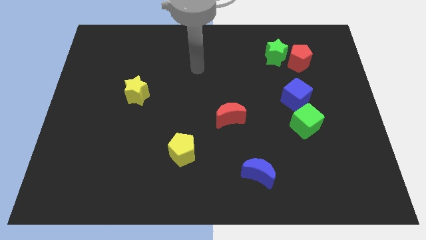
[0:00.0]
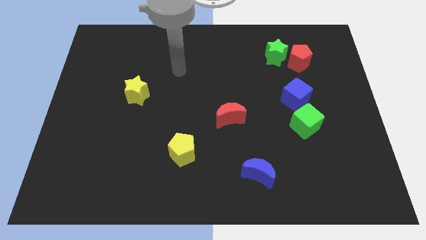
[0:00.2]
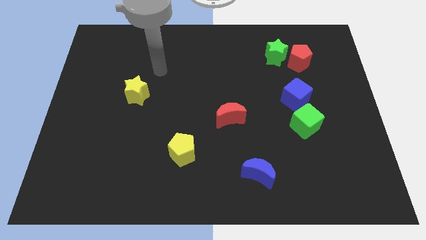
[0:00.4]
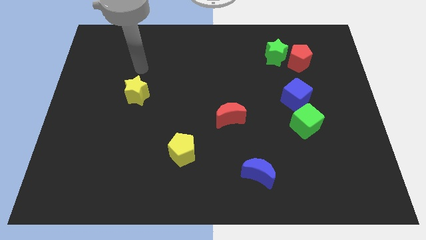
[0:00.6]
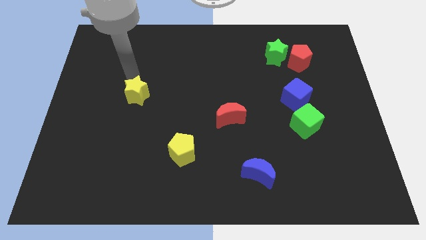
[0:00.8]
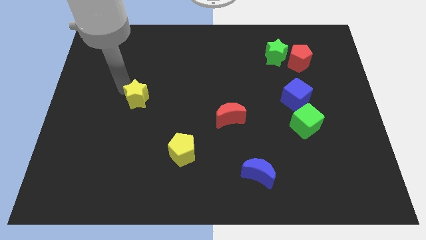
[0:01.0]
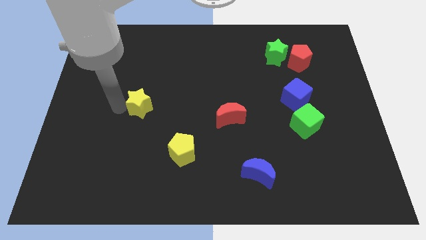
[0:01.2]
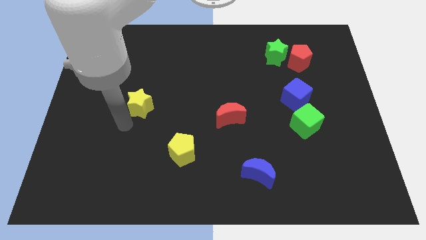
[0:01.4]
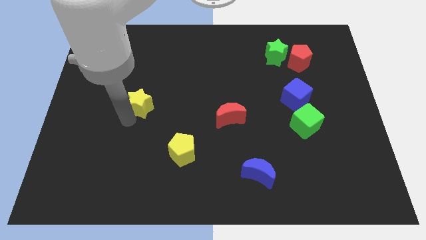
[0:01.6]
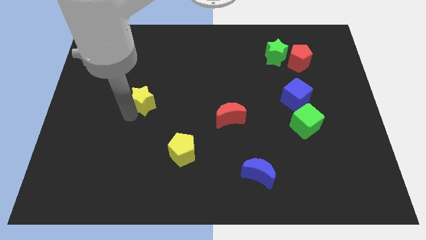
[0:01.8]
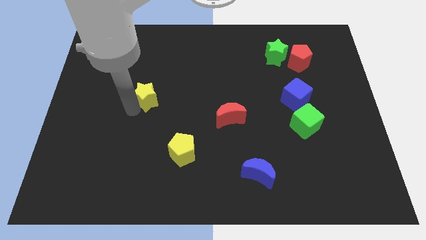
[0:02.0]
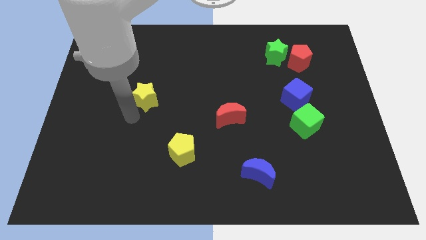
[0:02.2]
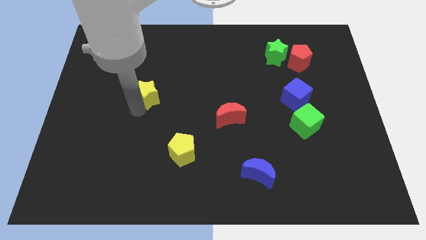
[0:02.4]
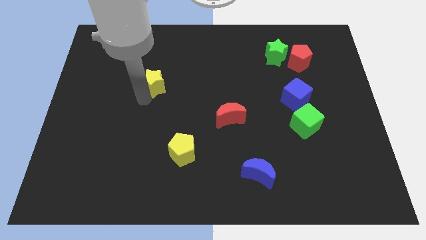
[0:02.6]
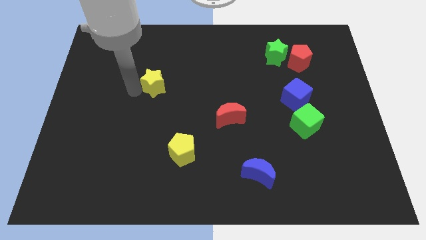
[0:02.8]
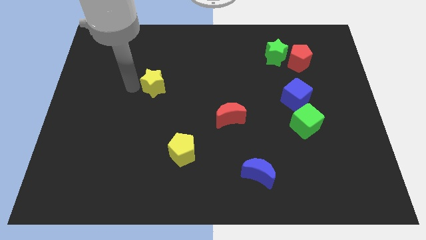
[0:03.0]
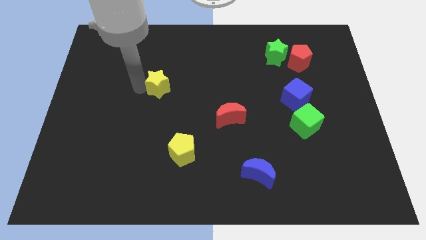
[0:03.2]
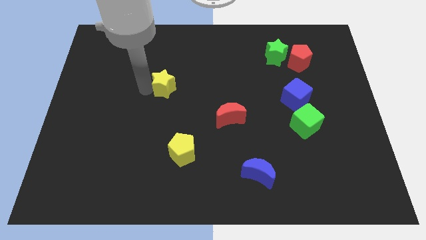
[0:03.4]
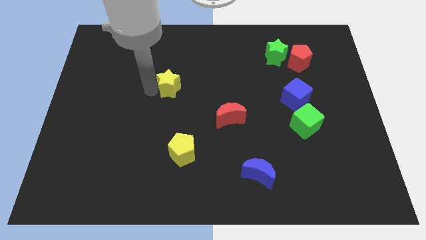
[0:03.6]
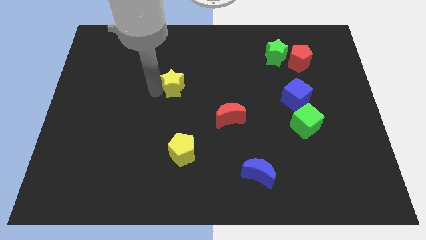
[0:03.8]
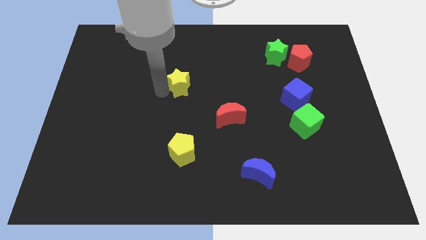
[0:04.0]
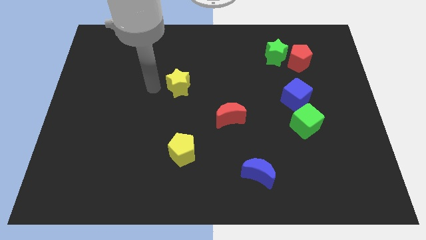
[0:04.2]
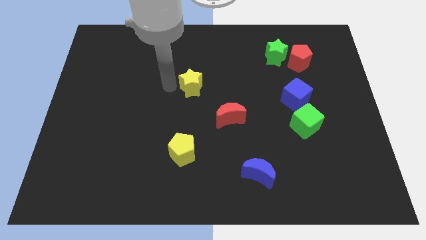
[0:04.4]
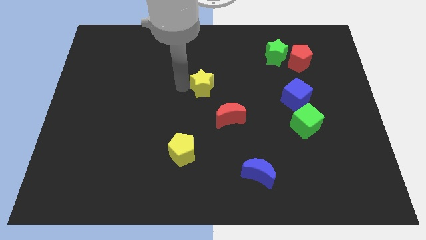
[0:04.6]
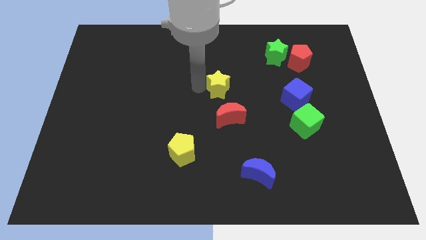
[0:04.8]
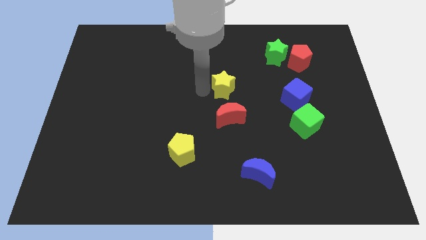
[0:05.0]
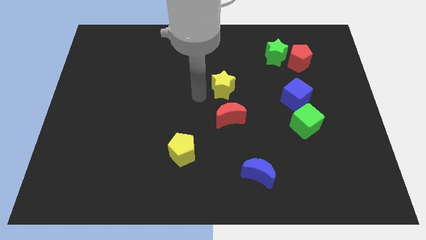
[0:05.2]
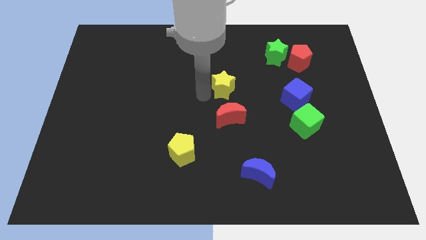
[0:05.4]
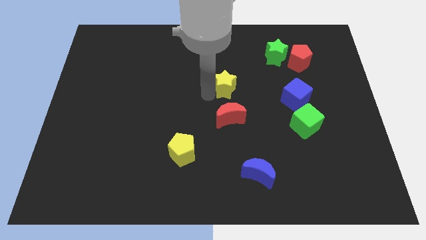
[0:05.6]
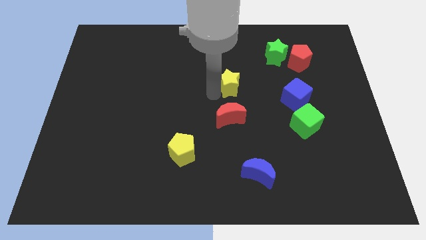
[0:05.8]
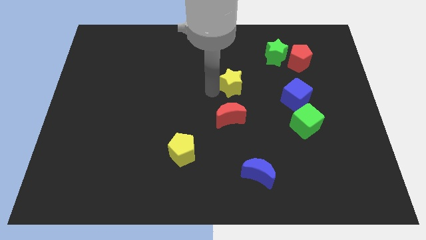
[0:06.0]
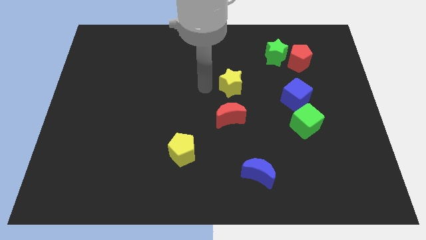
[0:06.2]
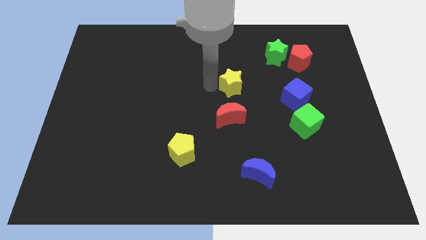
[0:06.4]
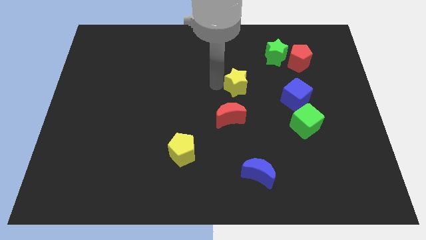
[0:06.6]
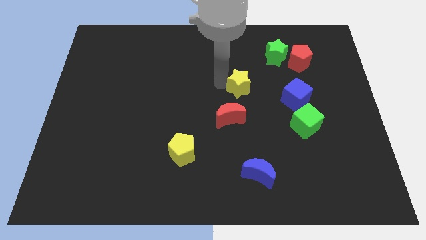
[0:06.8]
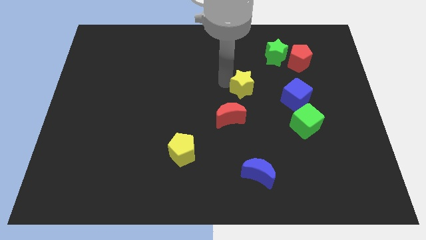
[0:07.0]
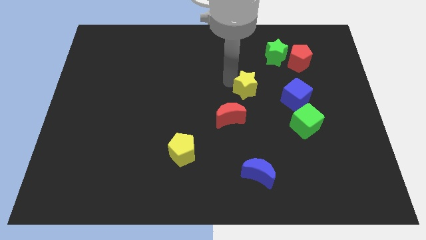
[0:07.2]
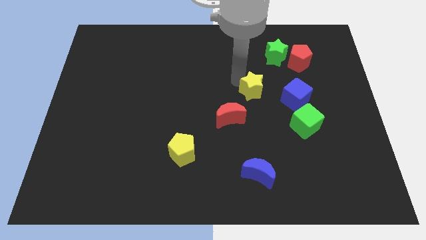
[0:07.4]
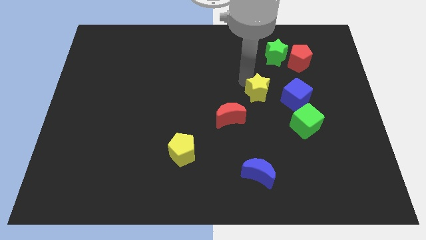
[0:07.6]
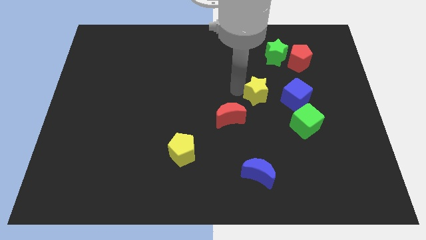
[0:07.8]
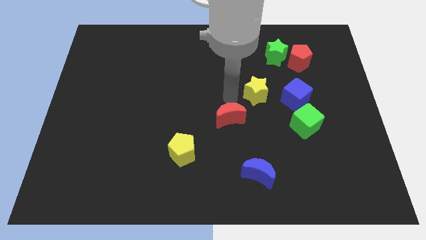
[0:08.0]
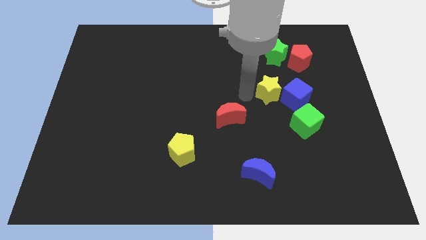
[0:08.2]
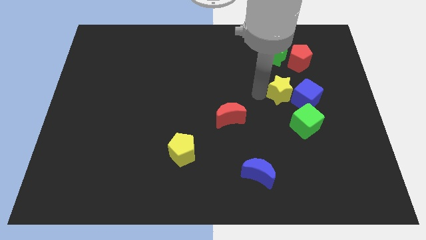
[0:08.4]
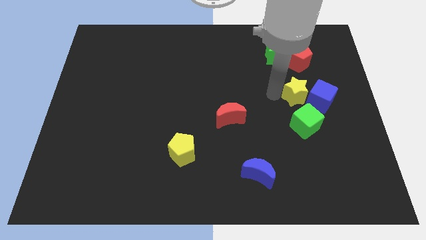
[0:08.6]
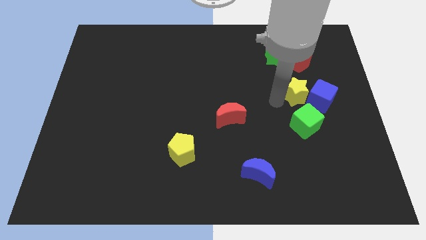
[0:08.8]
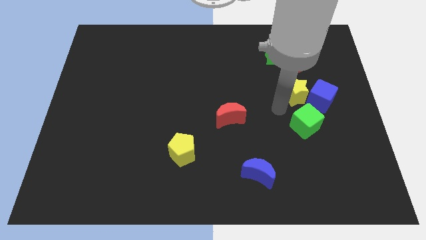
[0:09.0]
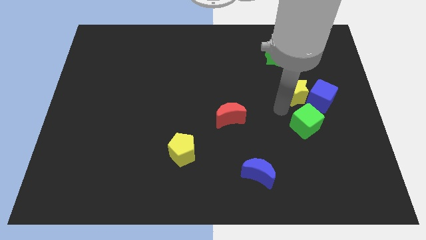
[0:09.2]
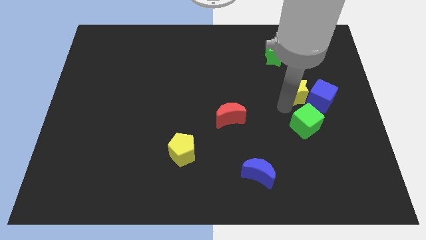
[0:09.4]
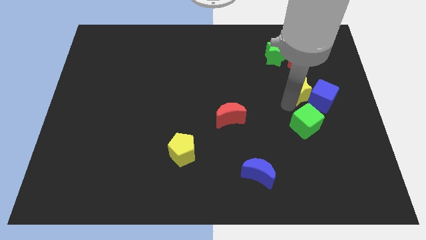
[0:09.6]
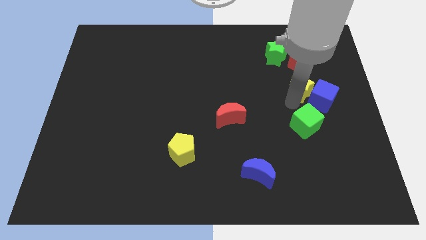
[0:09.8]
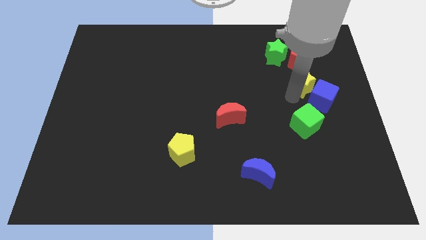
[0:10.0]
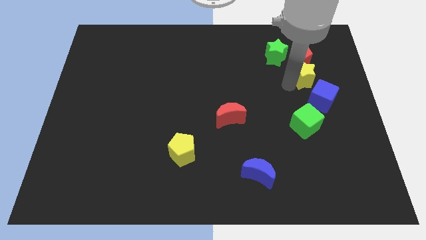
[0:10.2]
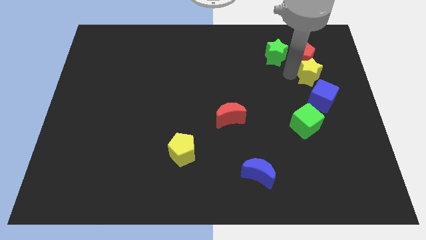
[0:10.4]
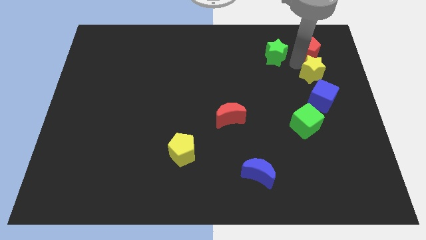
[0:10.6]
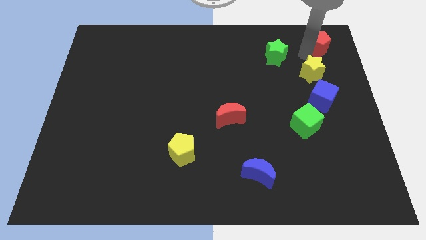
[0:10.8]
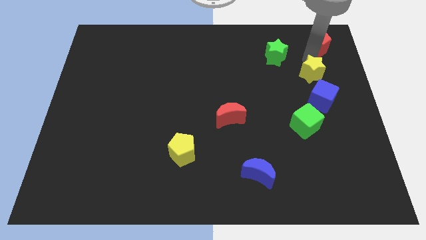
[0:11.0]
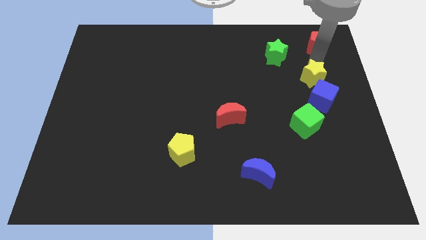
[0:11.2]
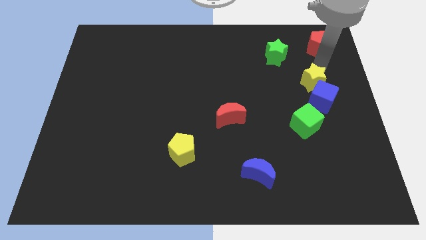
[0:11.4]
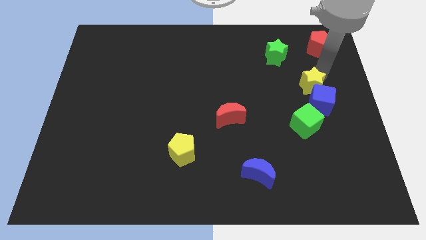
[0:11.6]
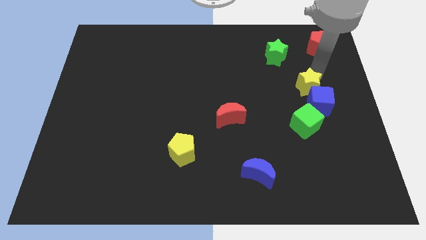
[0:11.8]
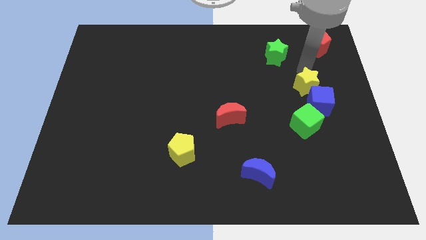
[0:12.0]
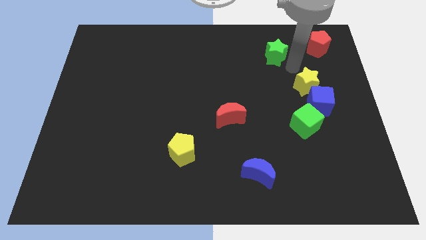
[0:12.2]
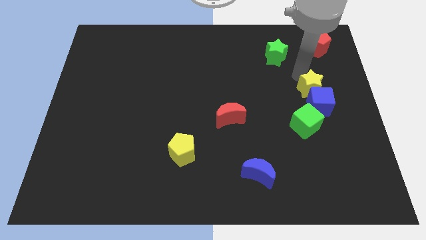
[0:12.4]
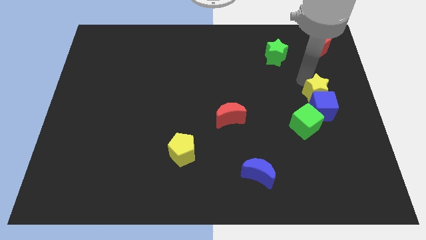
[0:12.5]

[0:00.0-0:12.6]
put the yellow star to the top right side of the green cube

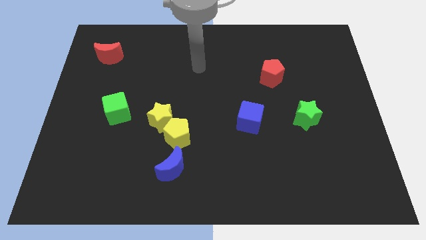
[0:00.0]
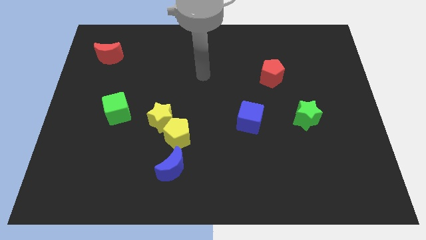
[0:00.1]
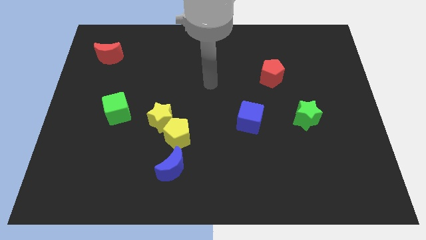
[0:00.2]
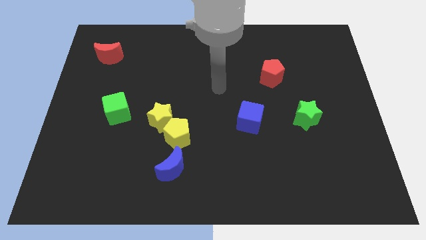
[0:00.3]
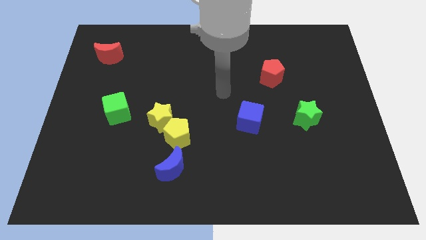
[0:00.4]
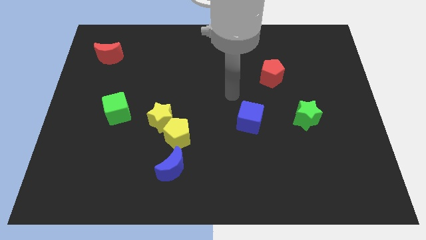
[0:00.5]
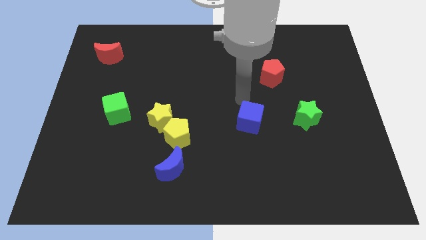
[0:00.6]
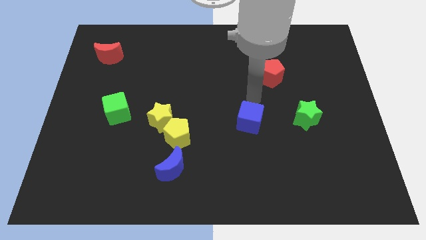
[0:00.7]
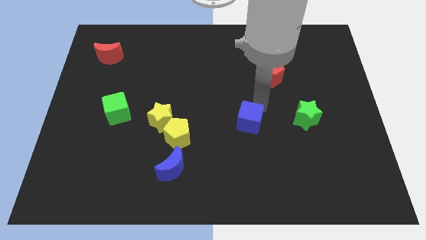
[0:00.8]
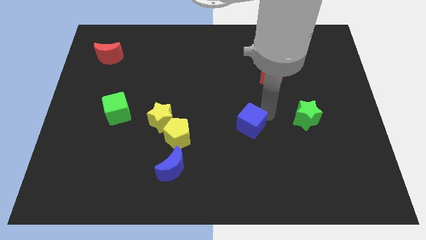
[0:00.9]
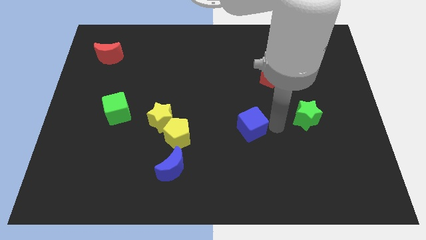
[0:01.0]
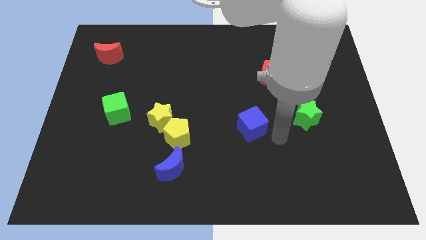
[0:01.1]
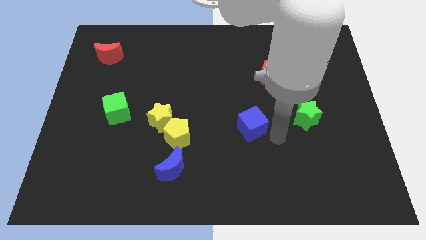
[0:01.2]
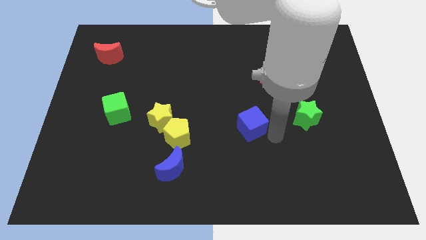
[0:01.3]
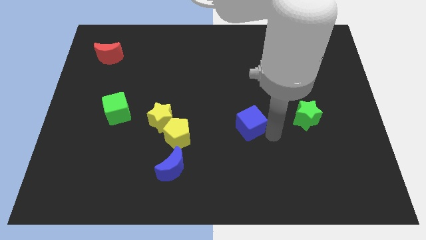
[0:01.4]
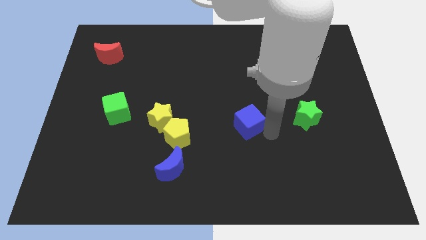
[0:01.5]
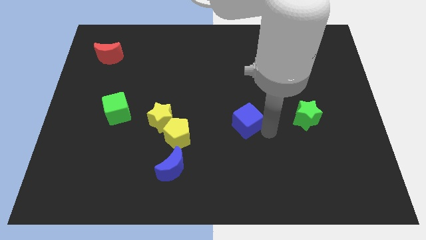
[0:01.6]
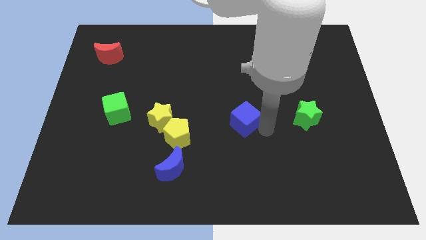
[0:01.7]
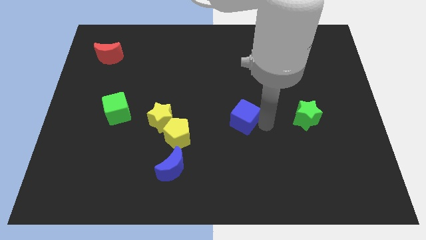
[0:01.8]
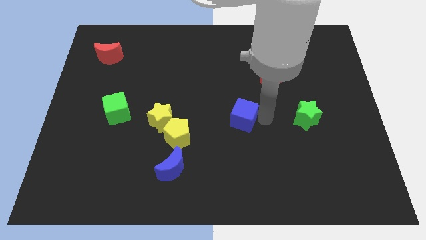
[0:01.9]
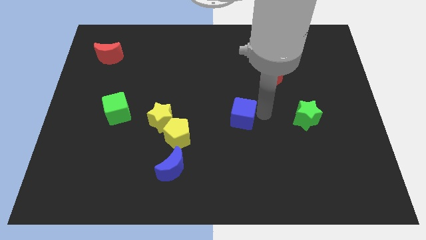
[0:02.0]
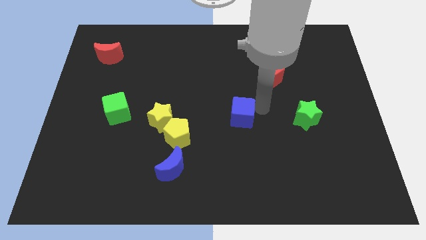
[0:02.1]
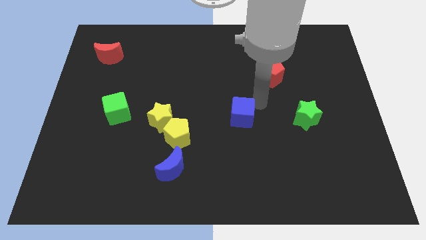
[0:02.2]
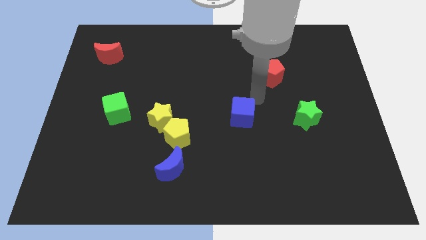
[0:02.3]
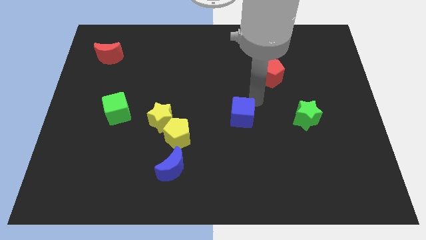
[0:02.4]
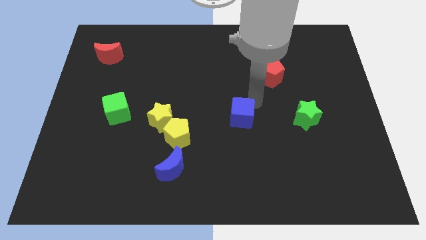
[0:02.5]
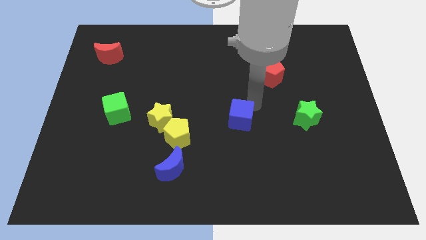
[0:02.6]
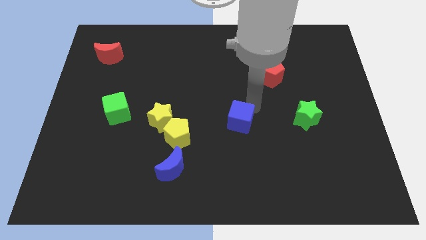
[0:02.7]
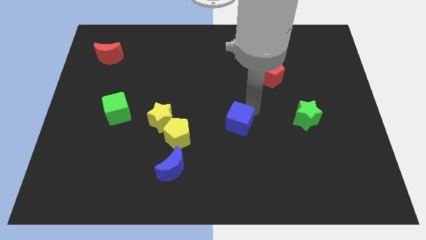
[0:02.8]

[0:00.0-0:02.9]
push the blue cube right of the yellow pentagon
